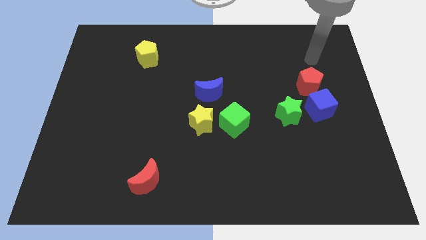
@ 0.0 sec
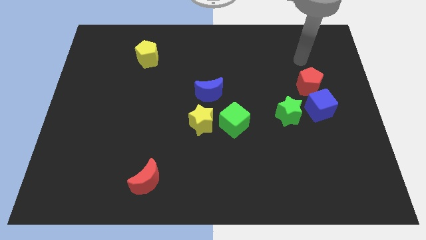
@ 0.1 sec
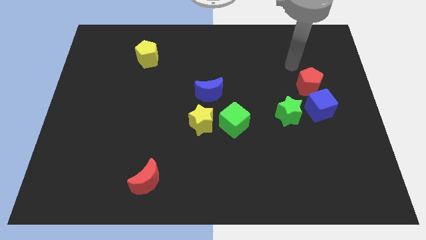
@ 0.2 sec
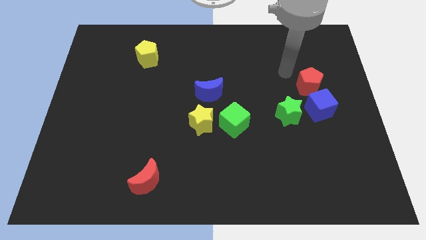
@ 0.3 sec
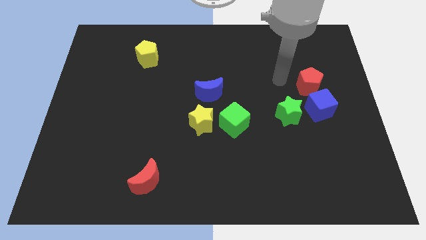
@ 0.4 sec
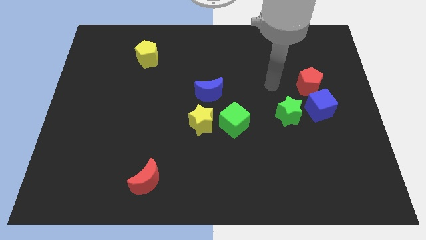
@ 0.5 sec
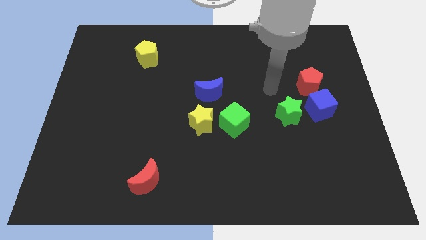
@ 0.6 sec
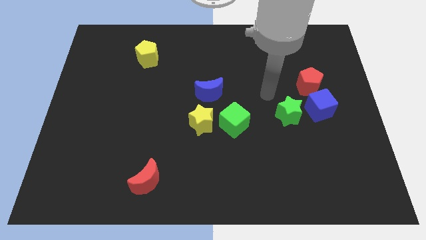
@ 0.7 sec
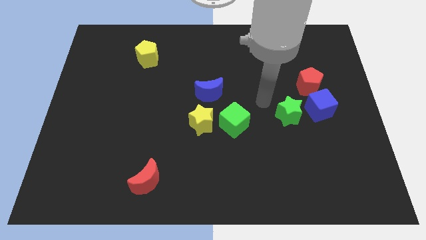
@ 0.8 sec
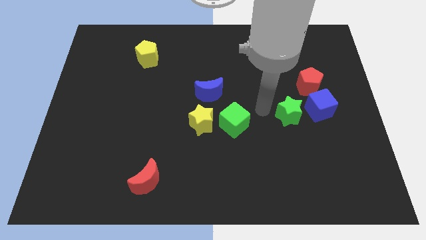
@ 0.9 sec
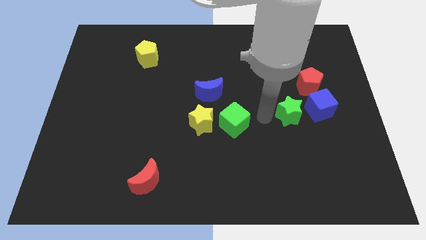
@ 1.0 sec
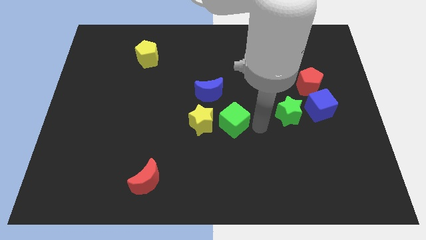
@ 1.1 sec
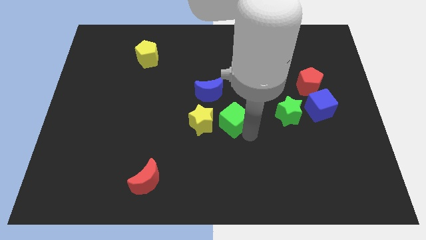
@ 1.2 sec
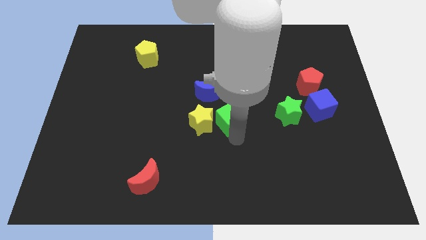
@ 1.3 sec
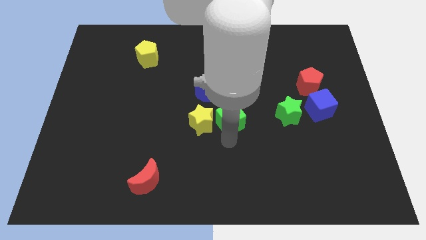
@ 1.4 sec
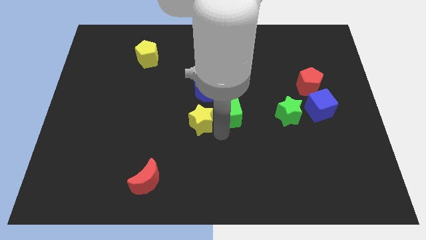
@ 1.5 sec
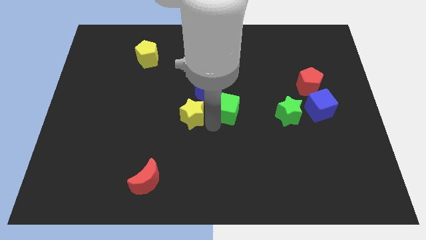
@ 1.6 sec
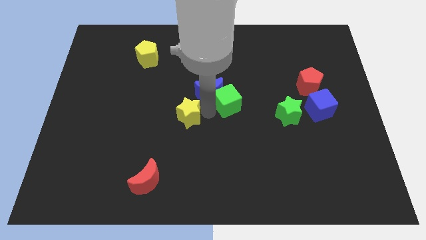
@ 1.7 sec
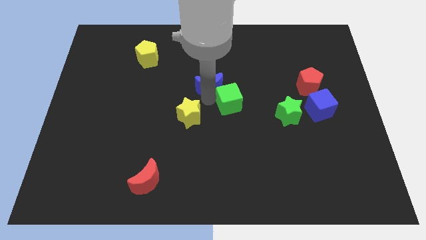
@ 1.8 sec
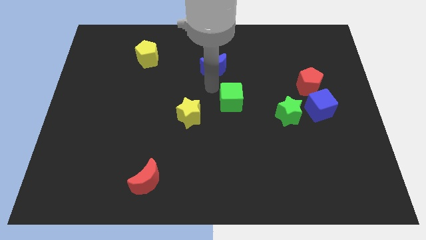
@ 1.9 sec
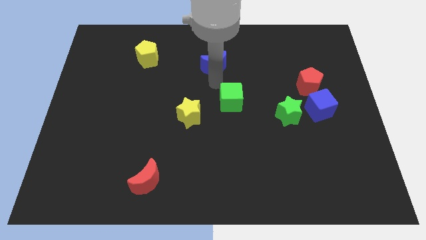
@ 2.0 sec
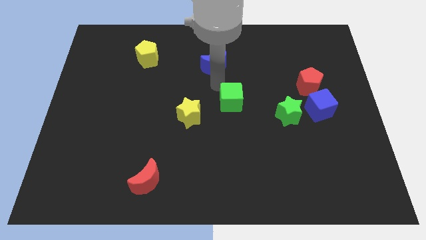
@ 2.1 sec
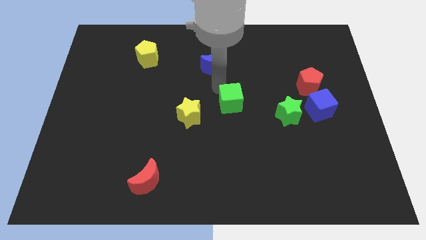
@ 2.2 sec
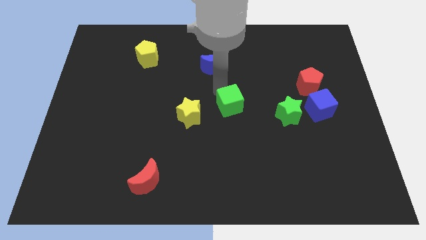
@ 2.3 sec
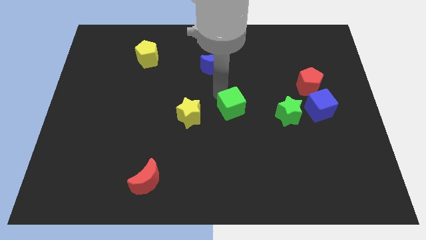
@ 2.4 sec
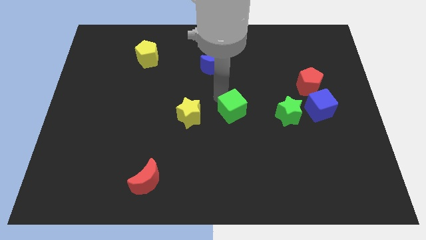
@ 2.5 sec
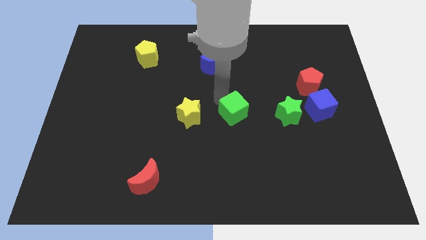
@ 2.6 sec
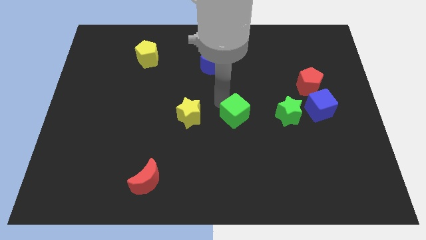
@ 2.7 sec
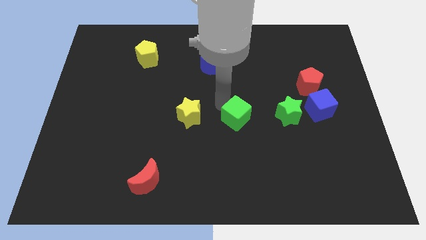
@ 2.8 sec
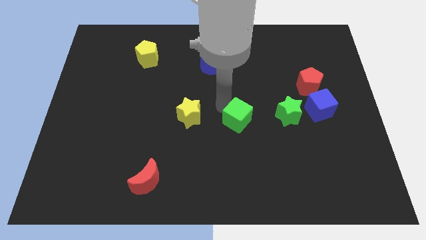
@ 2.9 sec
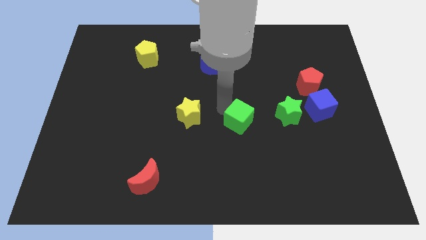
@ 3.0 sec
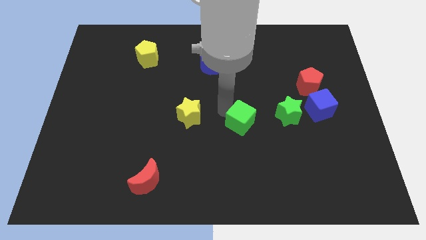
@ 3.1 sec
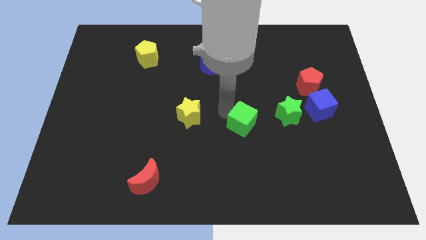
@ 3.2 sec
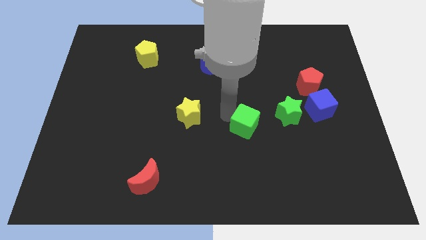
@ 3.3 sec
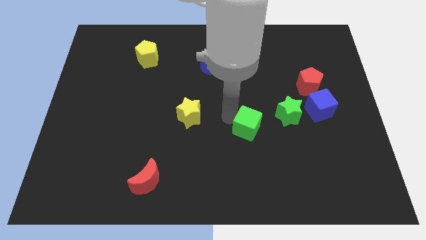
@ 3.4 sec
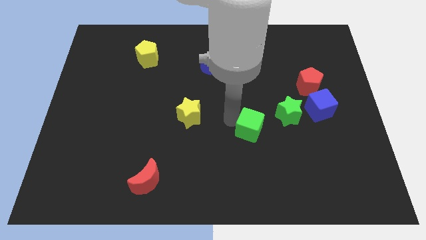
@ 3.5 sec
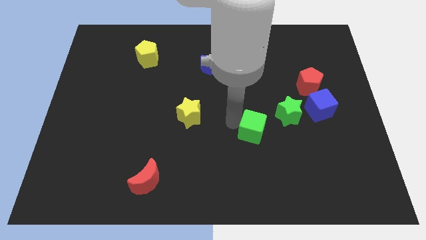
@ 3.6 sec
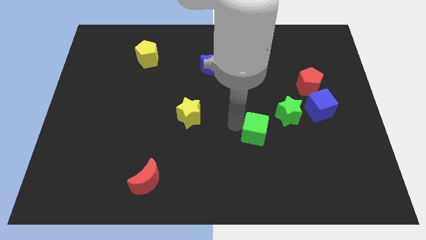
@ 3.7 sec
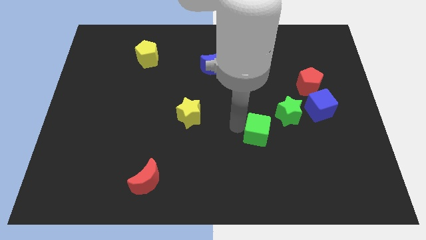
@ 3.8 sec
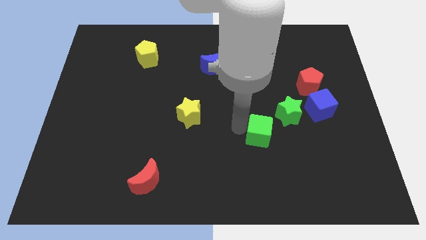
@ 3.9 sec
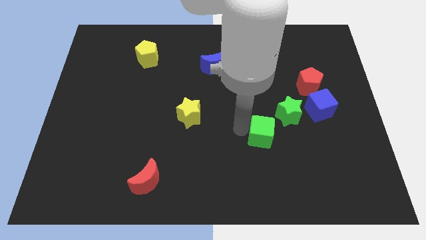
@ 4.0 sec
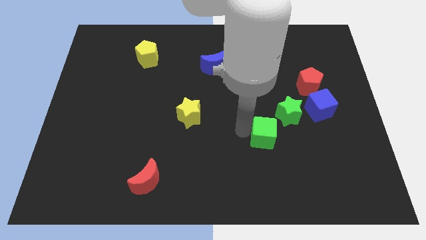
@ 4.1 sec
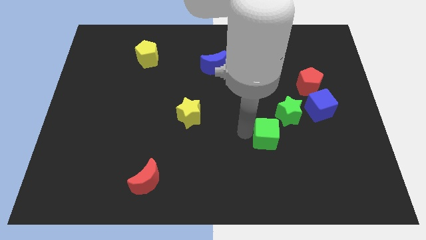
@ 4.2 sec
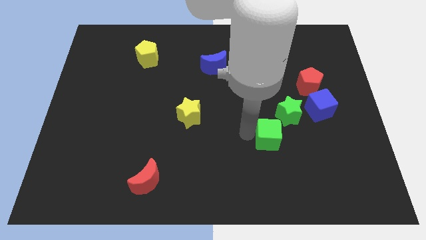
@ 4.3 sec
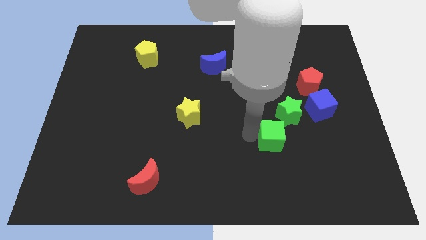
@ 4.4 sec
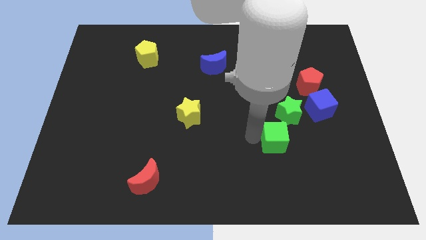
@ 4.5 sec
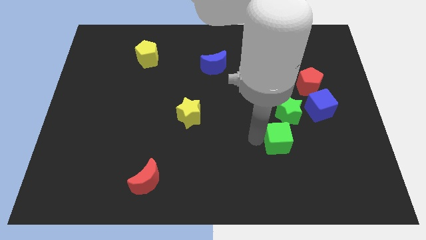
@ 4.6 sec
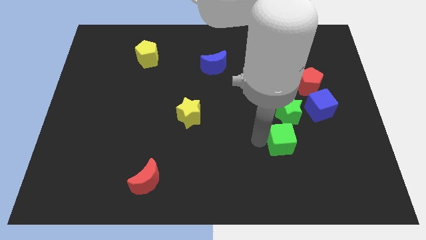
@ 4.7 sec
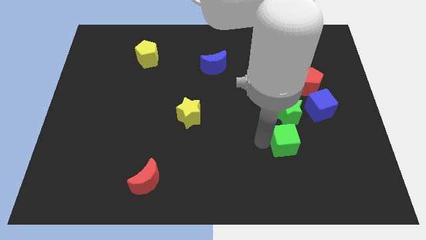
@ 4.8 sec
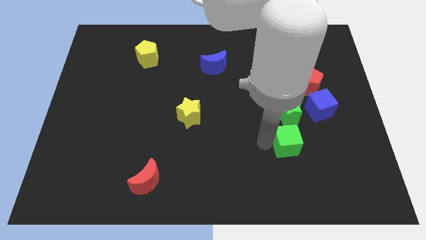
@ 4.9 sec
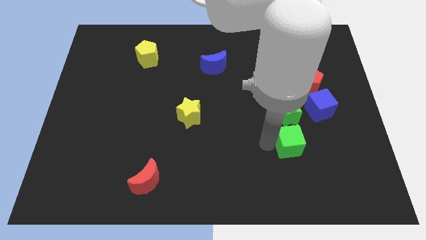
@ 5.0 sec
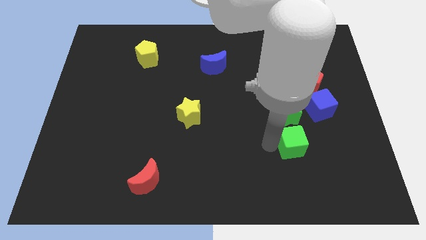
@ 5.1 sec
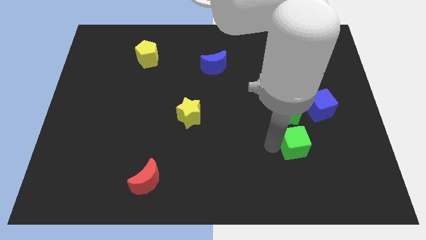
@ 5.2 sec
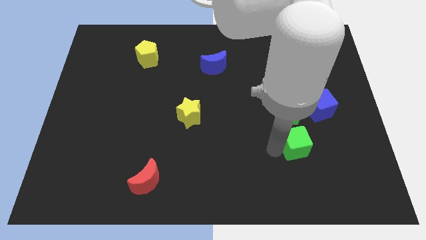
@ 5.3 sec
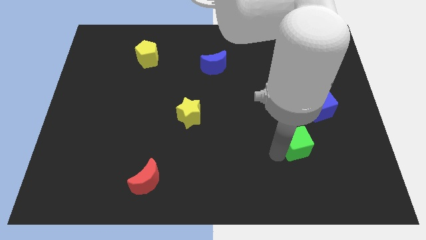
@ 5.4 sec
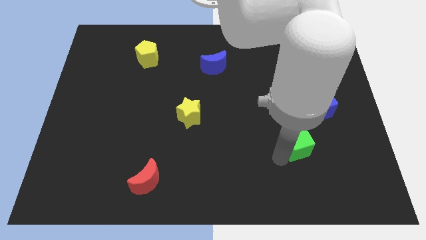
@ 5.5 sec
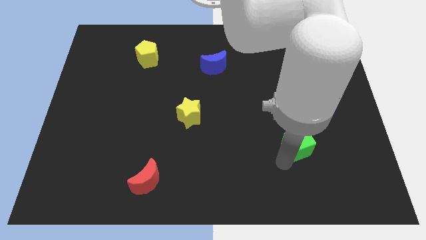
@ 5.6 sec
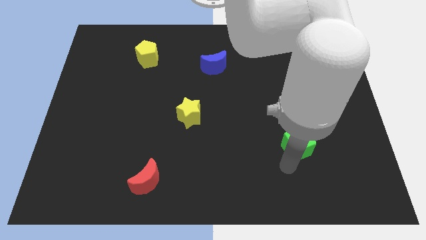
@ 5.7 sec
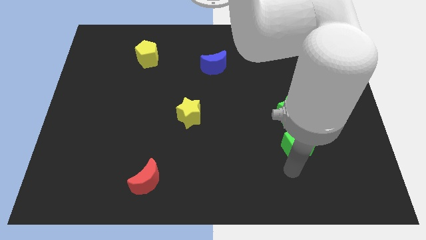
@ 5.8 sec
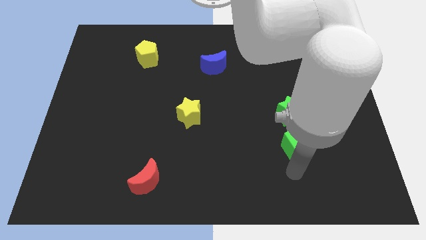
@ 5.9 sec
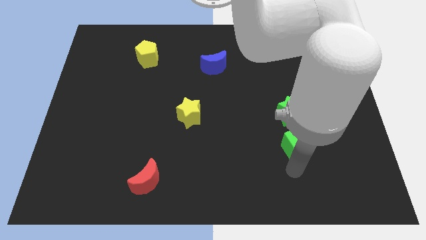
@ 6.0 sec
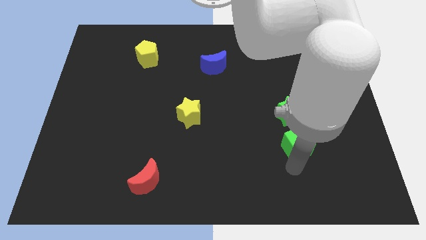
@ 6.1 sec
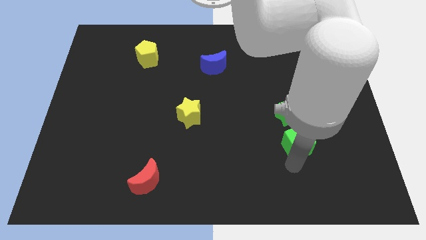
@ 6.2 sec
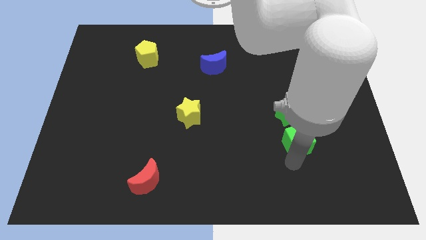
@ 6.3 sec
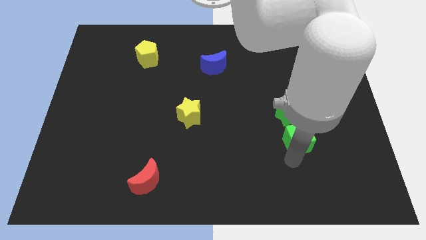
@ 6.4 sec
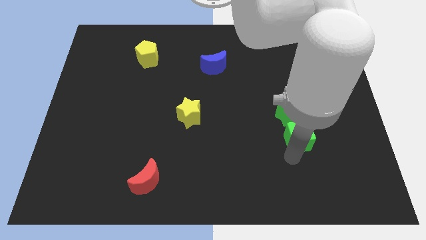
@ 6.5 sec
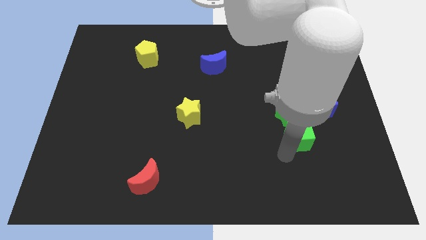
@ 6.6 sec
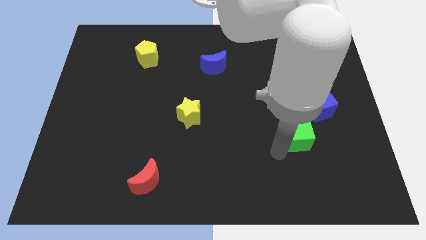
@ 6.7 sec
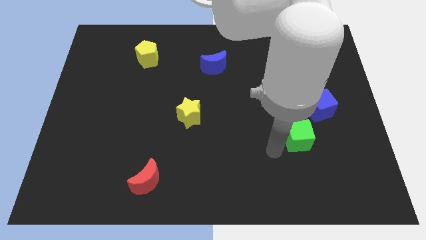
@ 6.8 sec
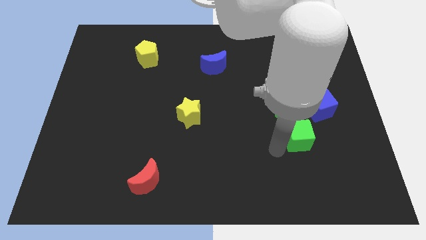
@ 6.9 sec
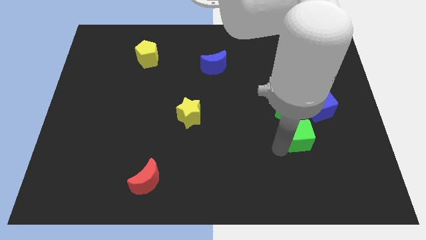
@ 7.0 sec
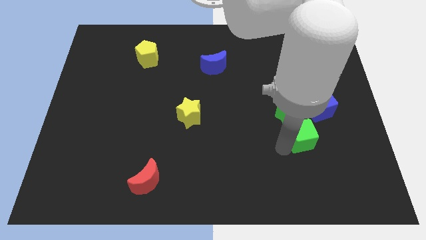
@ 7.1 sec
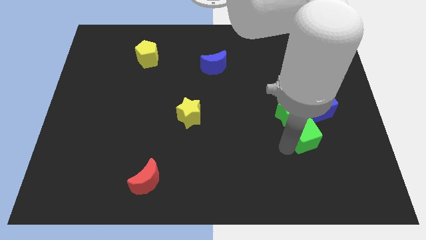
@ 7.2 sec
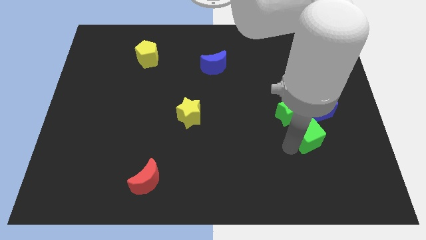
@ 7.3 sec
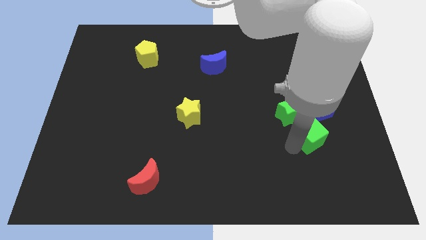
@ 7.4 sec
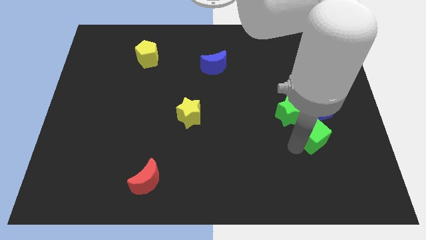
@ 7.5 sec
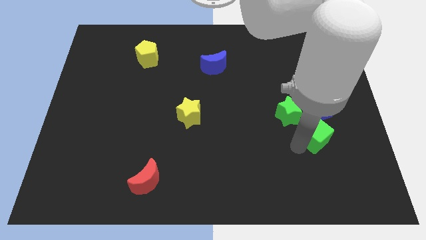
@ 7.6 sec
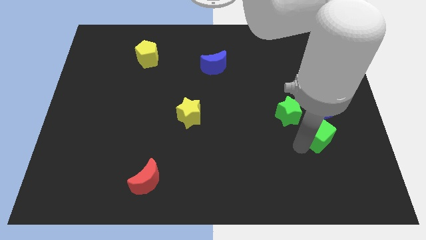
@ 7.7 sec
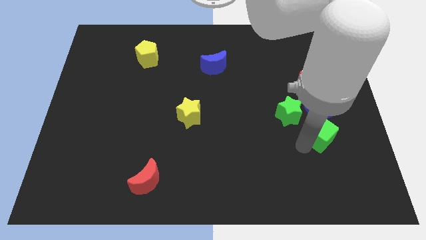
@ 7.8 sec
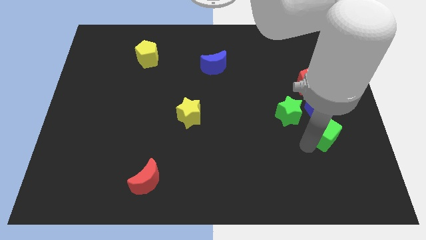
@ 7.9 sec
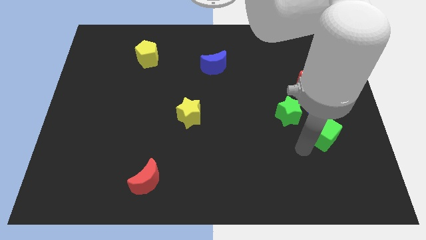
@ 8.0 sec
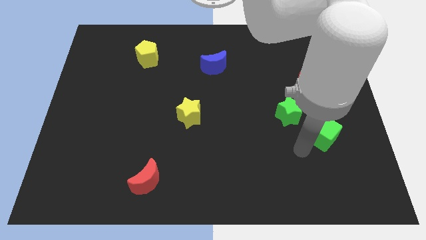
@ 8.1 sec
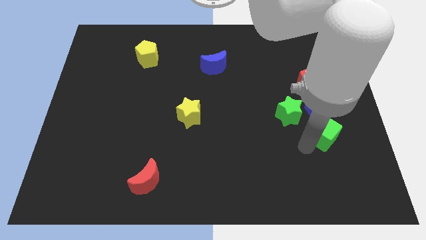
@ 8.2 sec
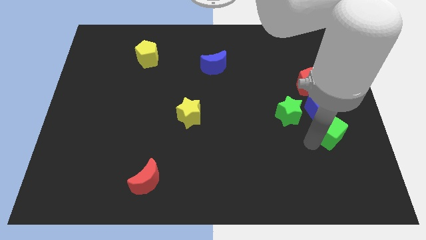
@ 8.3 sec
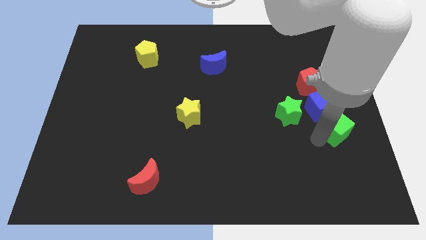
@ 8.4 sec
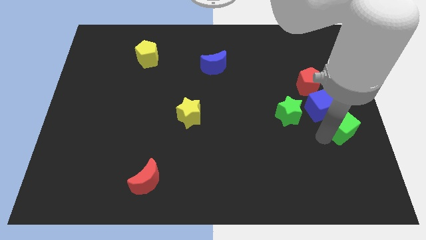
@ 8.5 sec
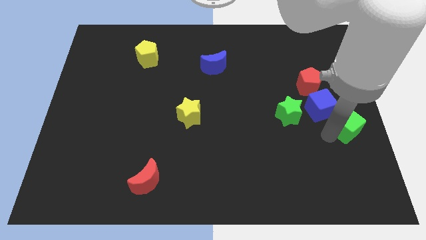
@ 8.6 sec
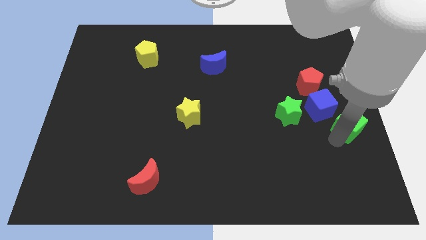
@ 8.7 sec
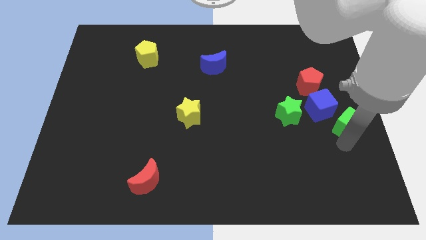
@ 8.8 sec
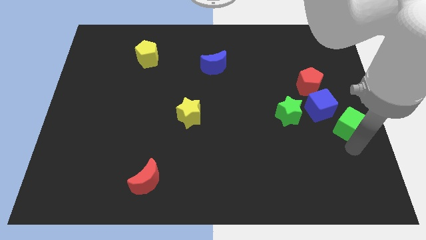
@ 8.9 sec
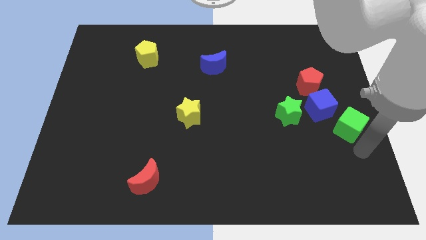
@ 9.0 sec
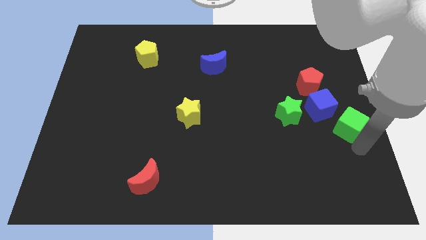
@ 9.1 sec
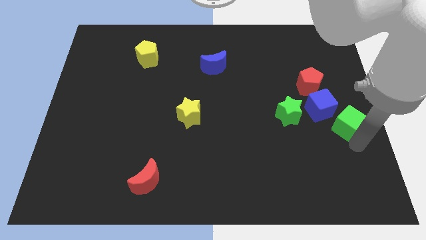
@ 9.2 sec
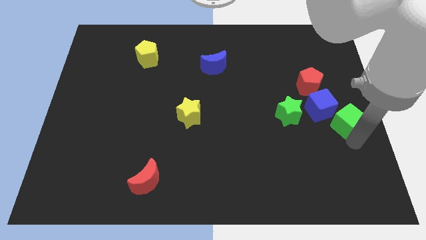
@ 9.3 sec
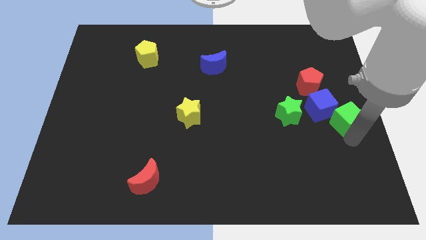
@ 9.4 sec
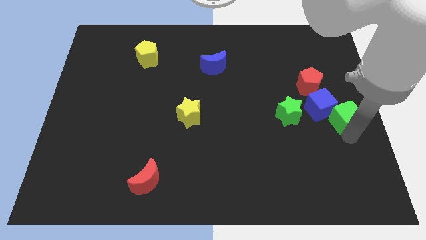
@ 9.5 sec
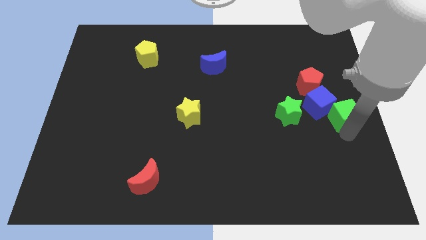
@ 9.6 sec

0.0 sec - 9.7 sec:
put the green cube diagonally down and to the right of the red pentagon
